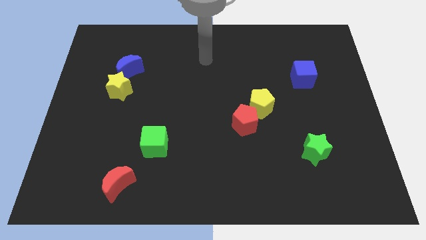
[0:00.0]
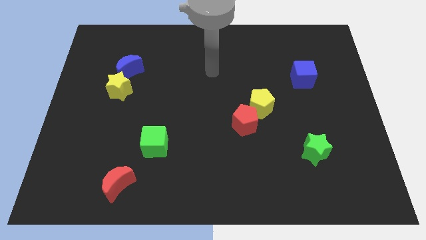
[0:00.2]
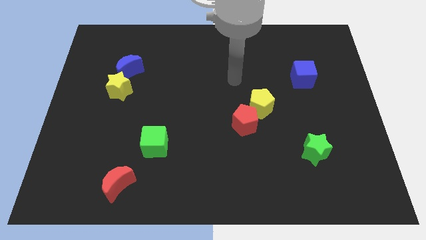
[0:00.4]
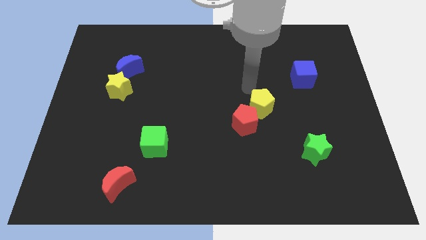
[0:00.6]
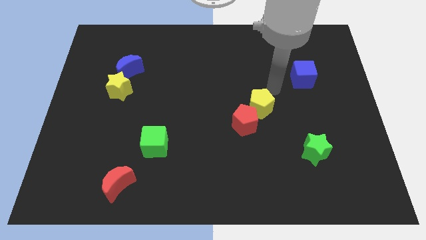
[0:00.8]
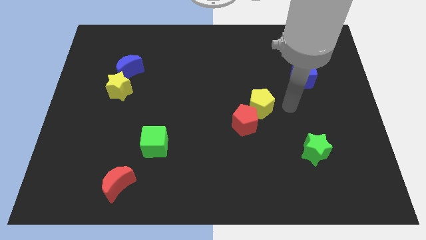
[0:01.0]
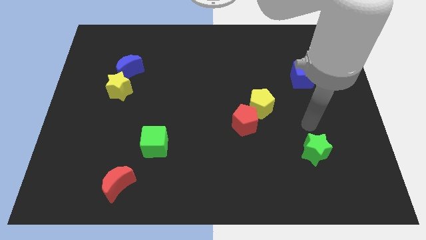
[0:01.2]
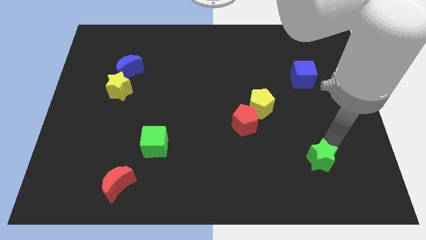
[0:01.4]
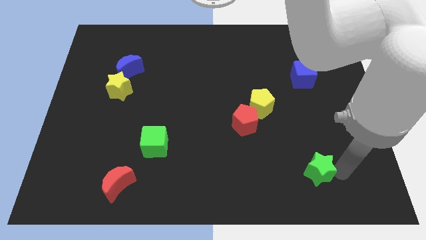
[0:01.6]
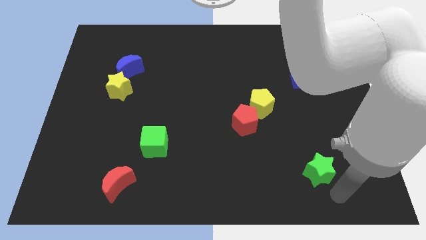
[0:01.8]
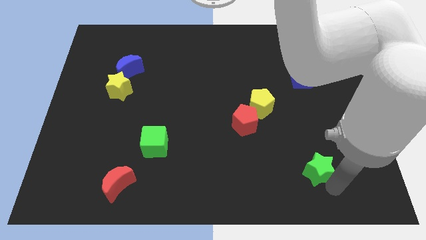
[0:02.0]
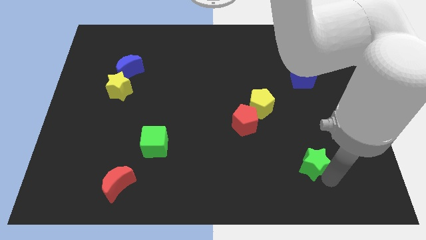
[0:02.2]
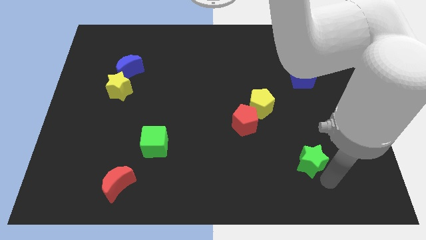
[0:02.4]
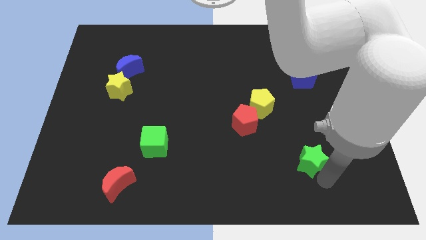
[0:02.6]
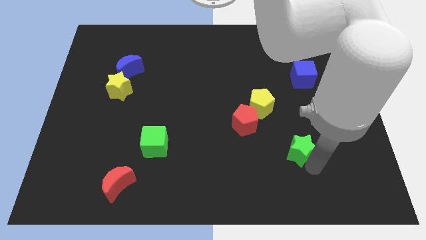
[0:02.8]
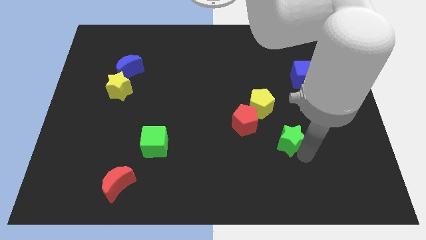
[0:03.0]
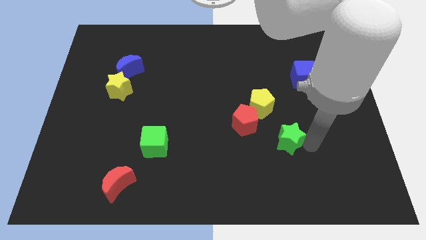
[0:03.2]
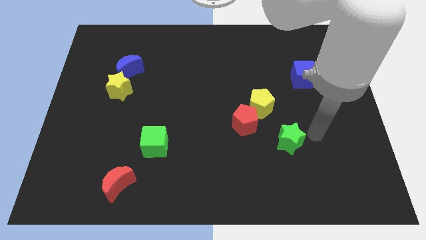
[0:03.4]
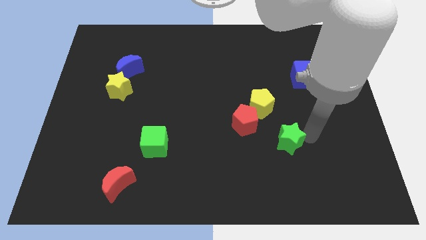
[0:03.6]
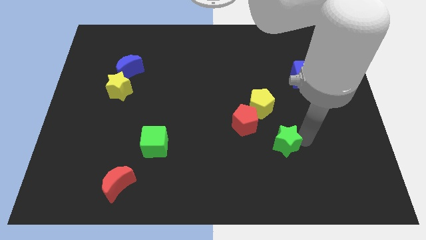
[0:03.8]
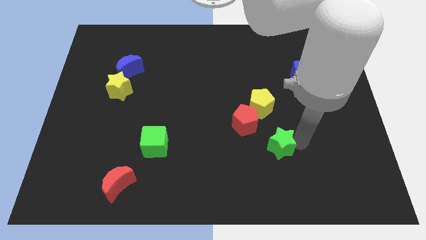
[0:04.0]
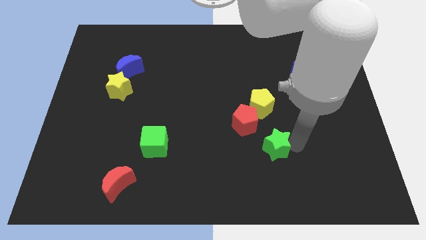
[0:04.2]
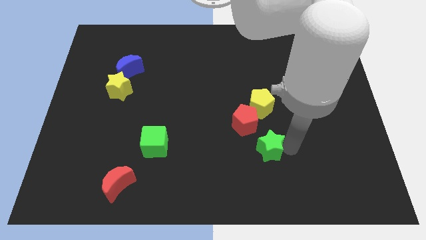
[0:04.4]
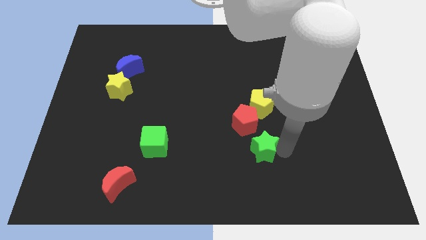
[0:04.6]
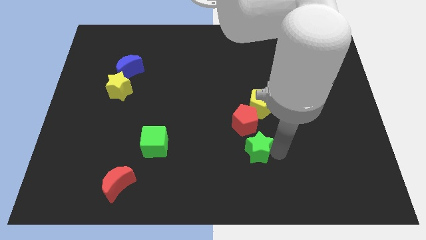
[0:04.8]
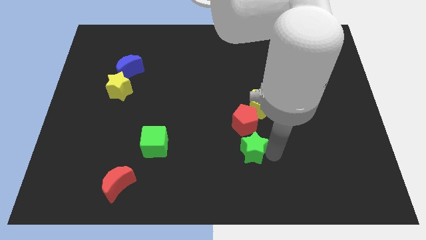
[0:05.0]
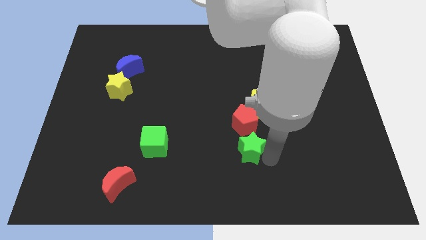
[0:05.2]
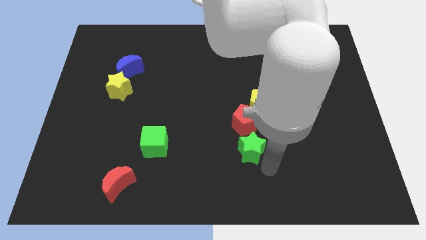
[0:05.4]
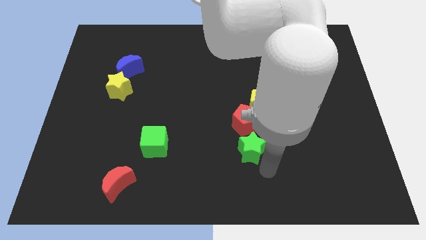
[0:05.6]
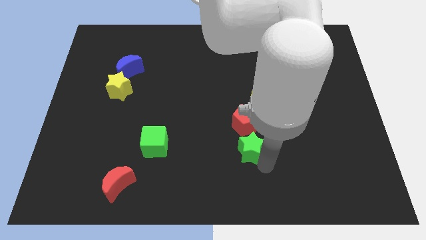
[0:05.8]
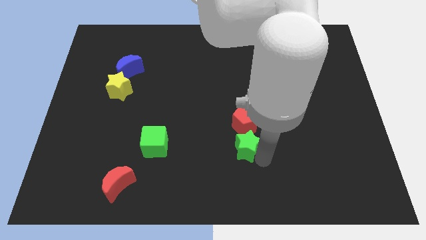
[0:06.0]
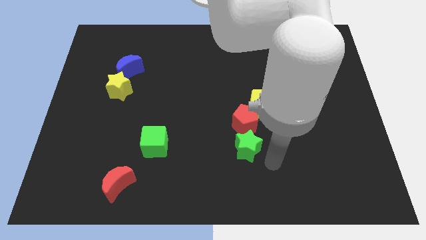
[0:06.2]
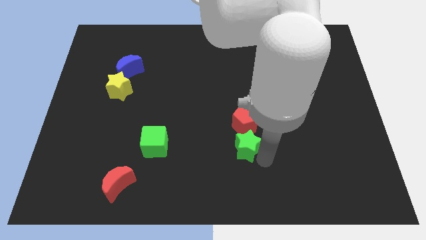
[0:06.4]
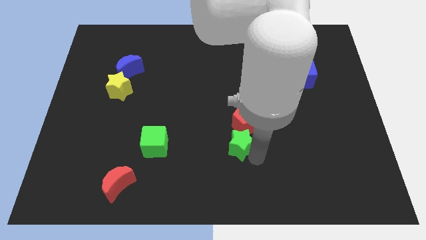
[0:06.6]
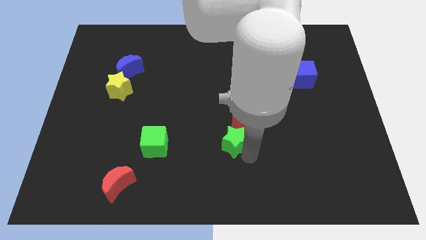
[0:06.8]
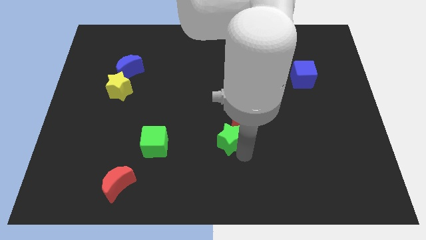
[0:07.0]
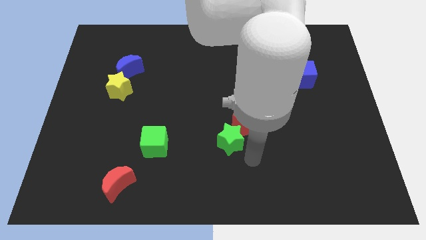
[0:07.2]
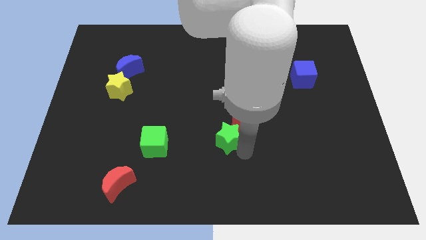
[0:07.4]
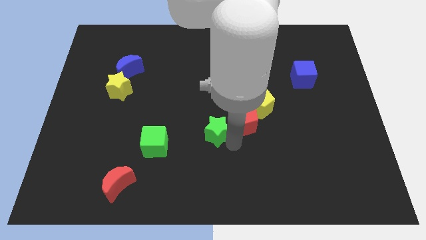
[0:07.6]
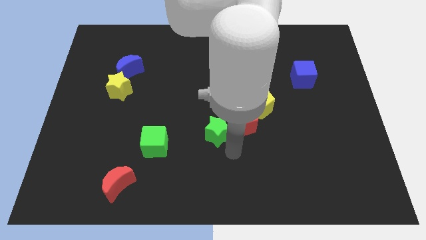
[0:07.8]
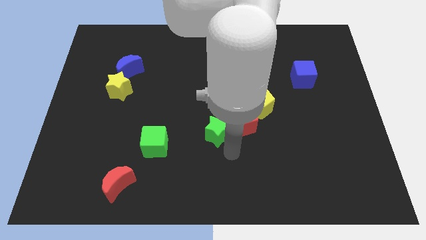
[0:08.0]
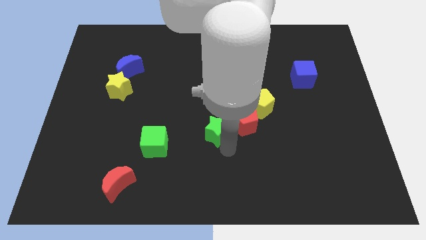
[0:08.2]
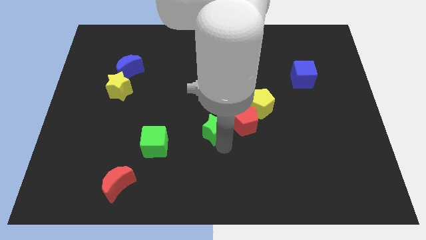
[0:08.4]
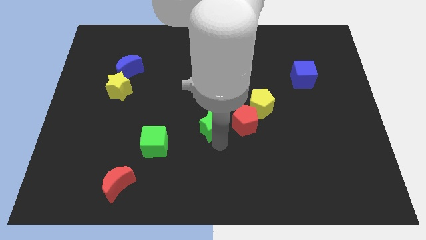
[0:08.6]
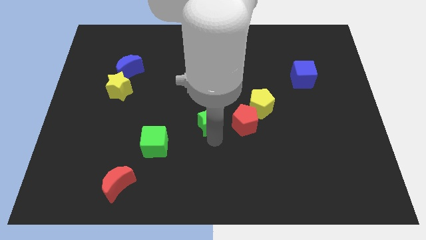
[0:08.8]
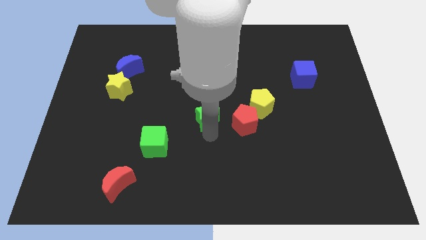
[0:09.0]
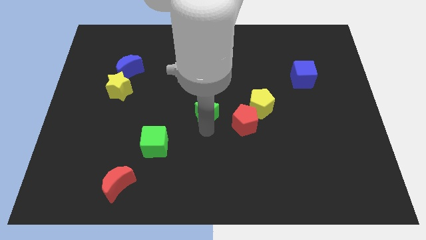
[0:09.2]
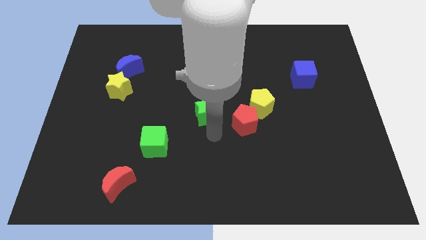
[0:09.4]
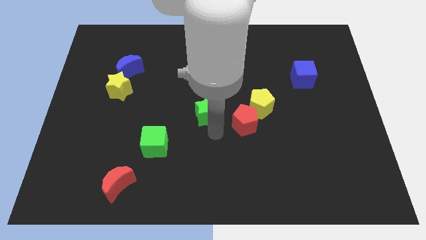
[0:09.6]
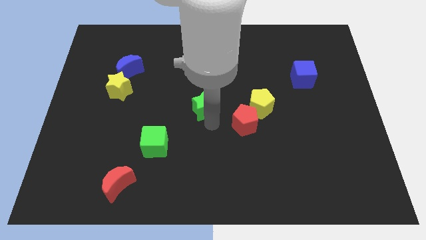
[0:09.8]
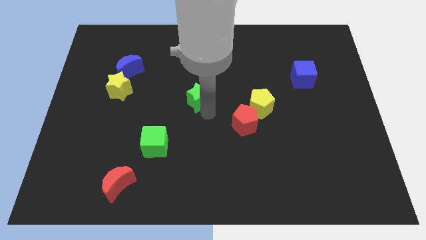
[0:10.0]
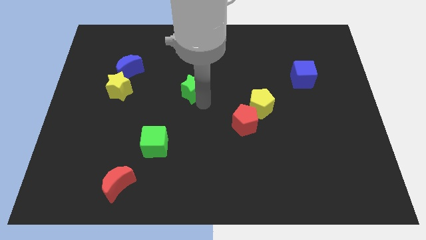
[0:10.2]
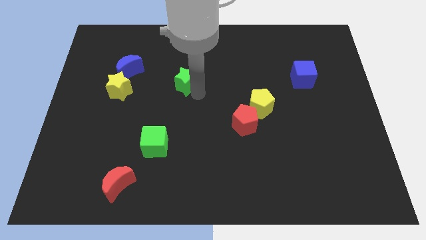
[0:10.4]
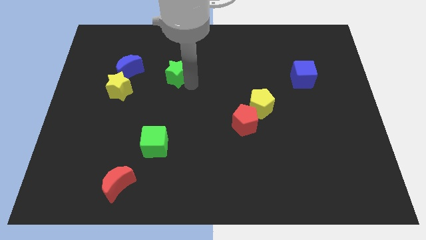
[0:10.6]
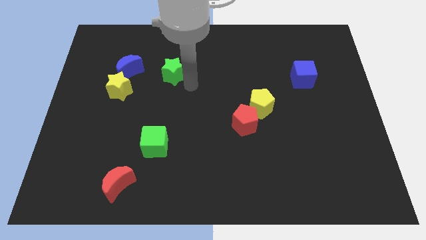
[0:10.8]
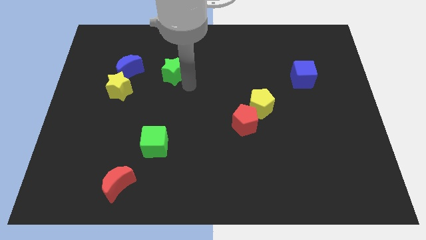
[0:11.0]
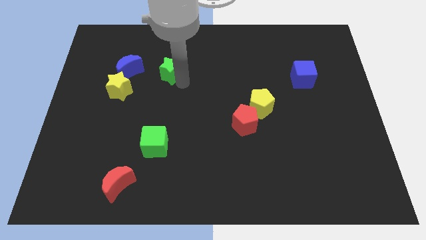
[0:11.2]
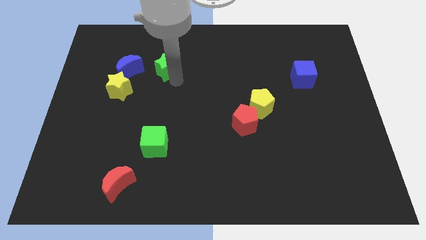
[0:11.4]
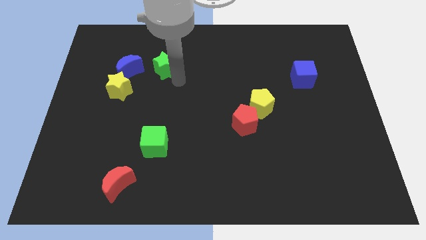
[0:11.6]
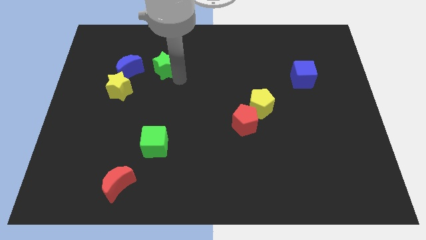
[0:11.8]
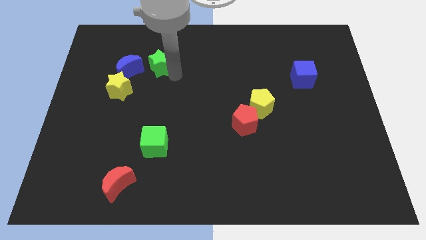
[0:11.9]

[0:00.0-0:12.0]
slide the green star to the top right side of the blue moon

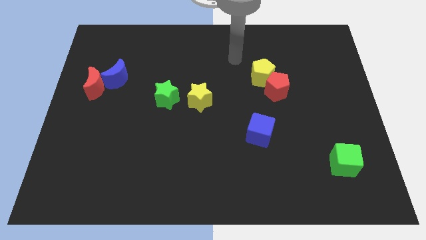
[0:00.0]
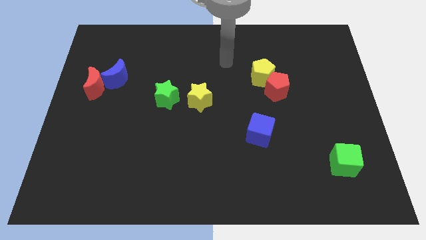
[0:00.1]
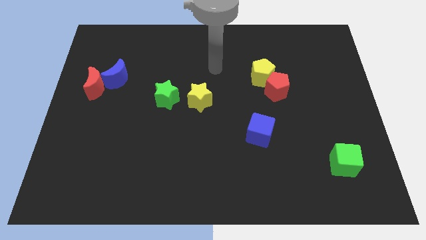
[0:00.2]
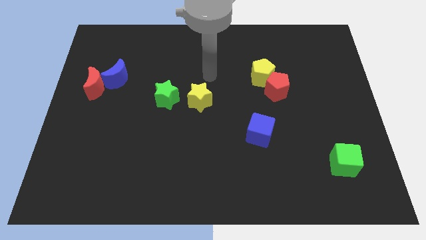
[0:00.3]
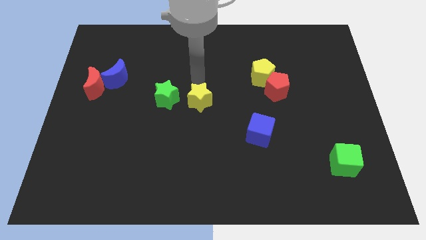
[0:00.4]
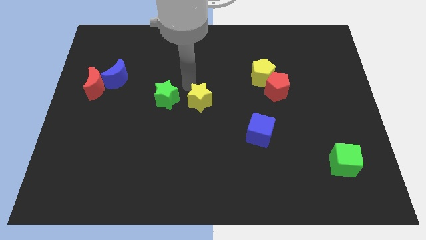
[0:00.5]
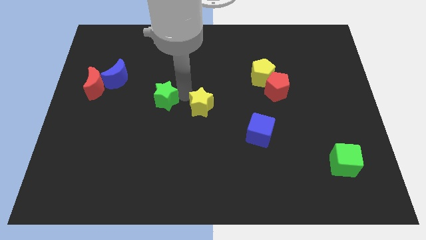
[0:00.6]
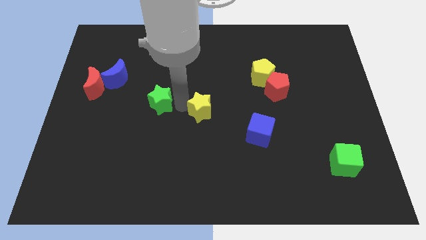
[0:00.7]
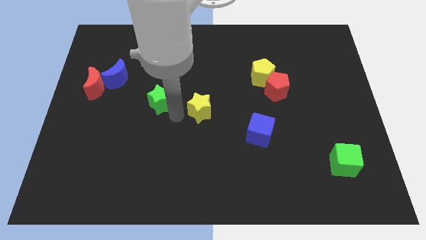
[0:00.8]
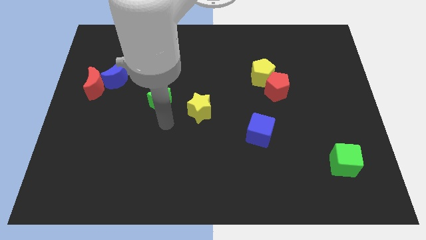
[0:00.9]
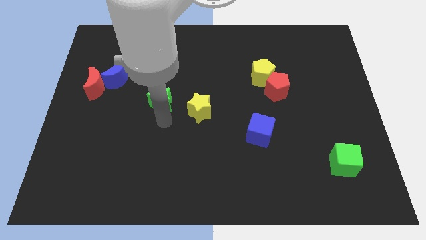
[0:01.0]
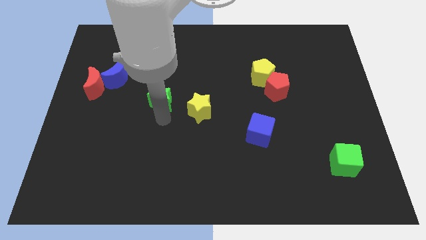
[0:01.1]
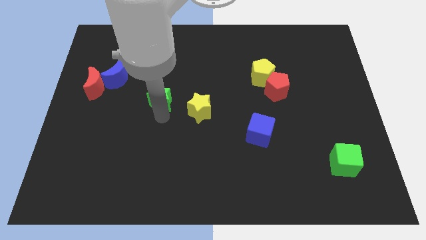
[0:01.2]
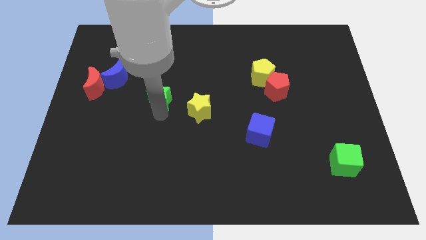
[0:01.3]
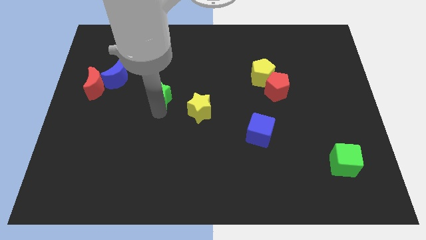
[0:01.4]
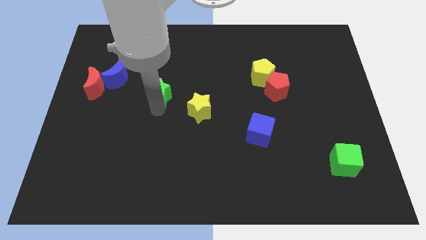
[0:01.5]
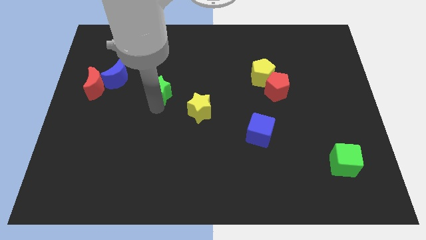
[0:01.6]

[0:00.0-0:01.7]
move the green star to the right side of the blue moon

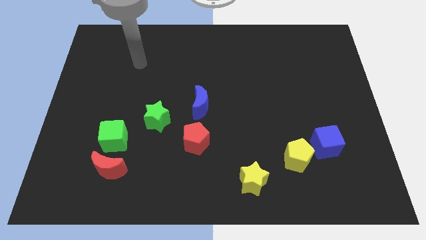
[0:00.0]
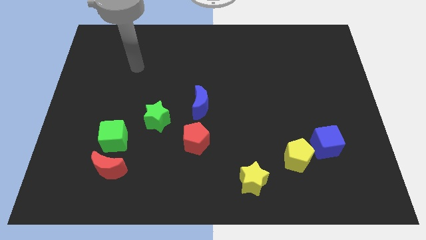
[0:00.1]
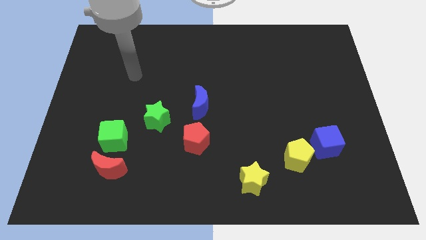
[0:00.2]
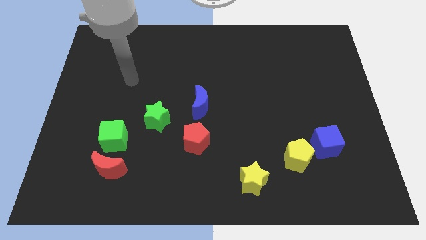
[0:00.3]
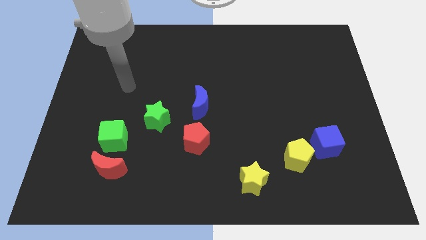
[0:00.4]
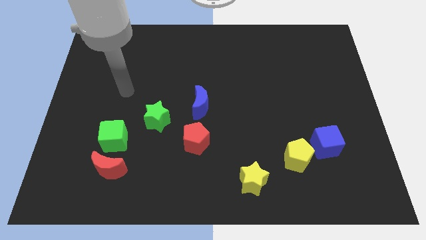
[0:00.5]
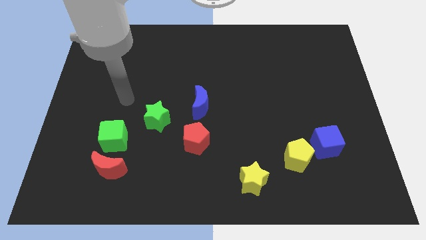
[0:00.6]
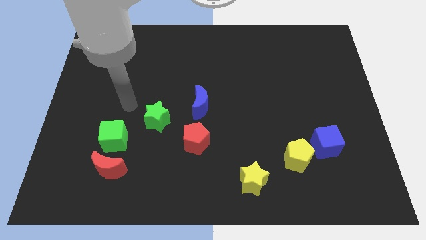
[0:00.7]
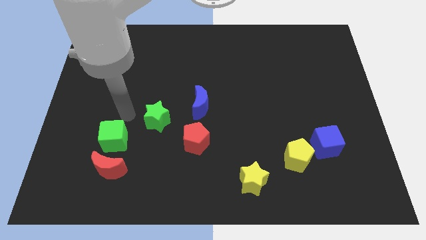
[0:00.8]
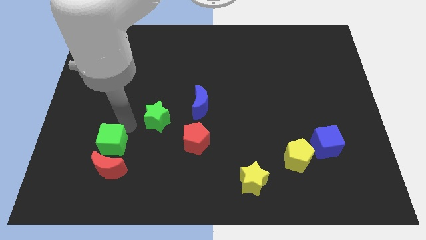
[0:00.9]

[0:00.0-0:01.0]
move the red moon diagonally down and to the left of the green cube
